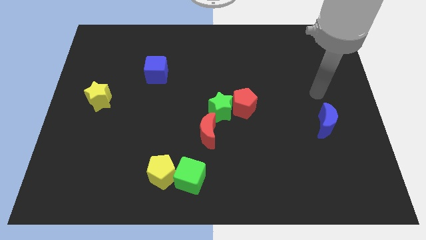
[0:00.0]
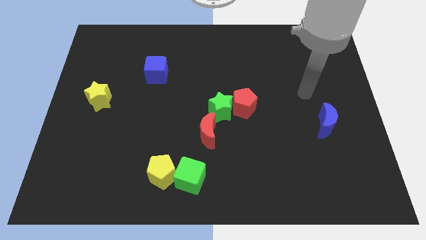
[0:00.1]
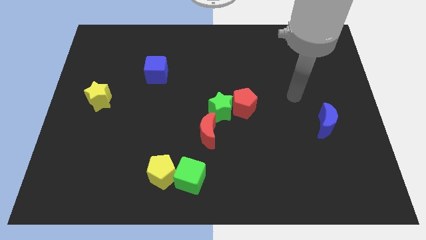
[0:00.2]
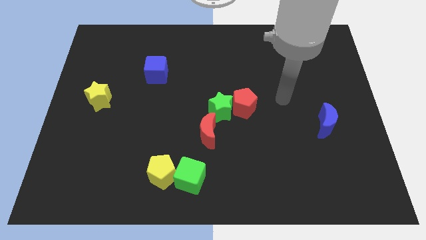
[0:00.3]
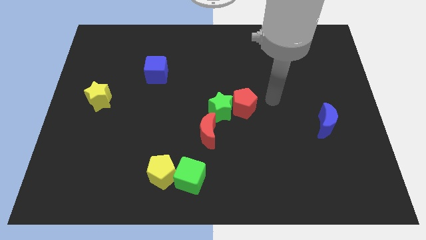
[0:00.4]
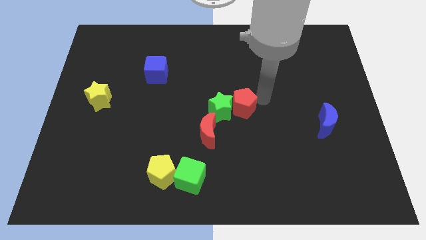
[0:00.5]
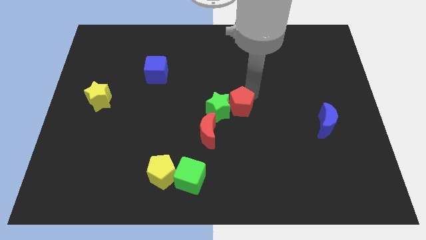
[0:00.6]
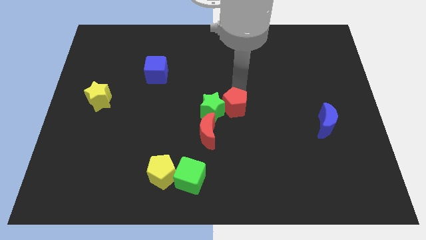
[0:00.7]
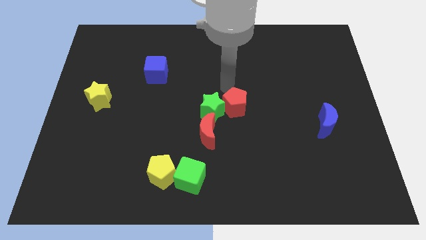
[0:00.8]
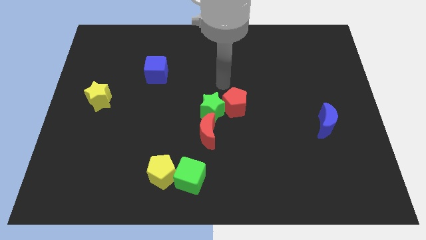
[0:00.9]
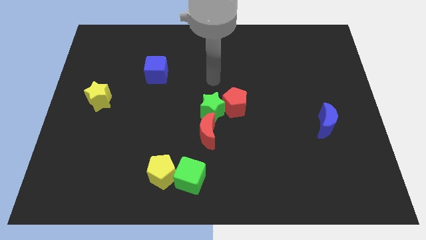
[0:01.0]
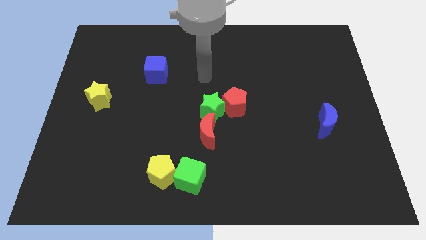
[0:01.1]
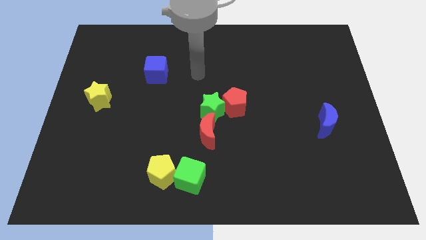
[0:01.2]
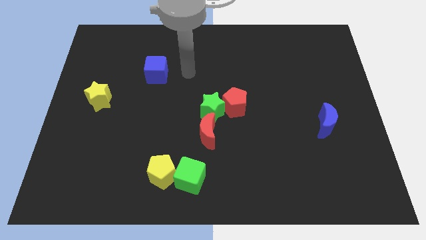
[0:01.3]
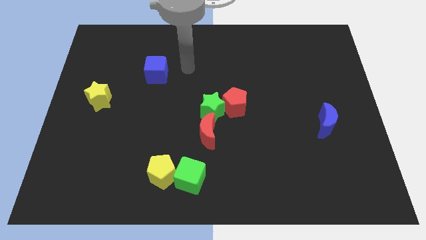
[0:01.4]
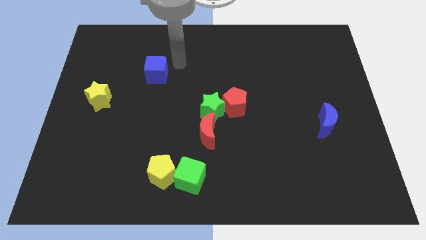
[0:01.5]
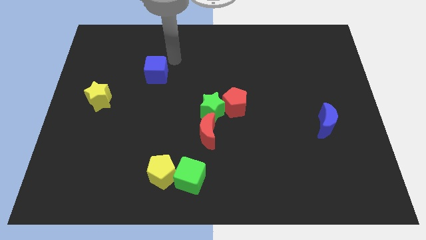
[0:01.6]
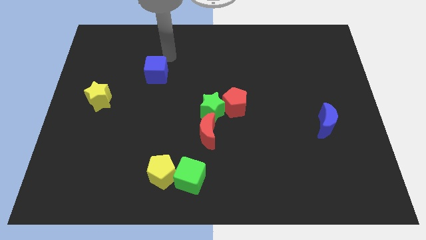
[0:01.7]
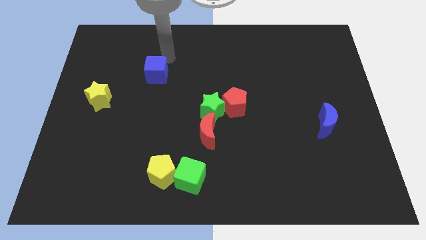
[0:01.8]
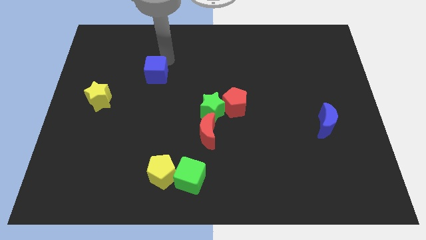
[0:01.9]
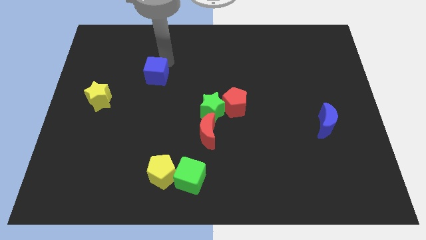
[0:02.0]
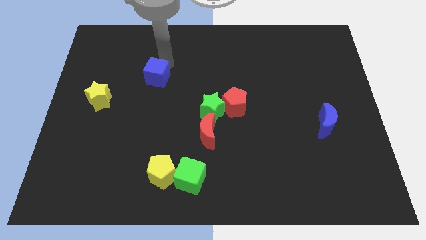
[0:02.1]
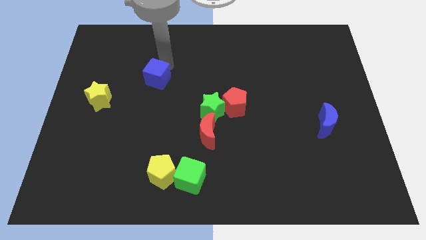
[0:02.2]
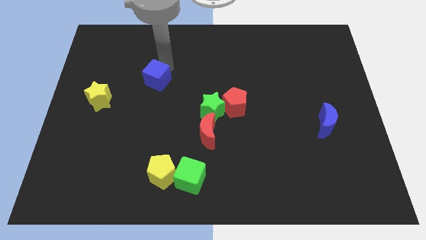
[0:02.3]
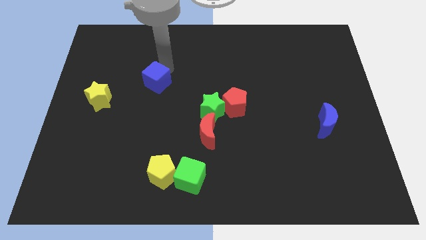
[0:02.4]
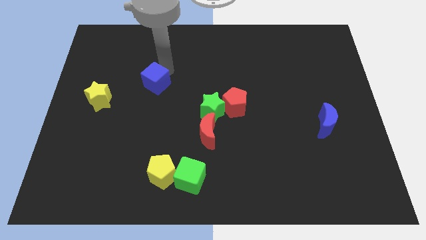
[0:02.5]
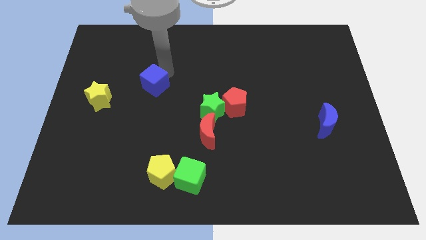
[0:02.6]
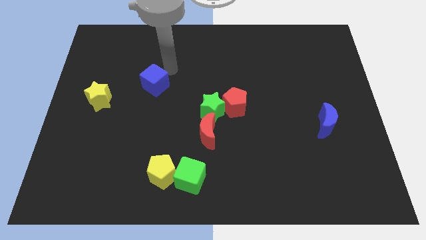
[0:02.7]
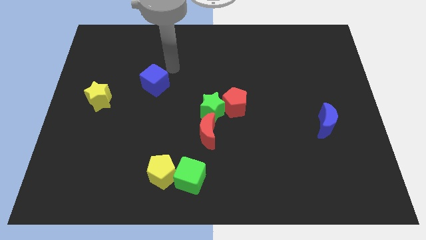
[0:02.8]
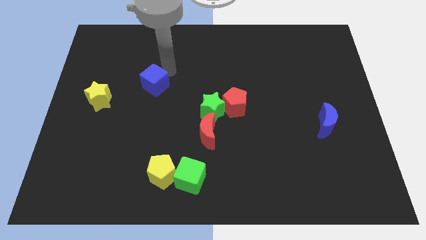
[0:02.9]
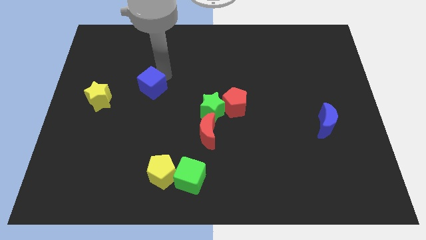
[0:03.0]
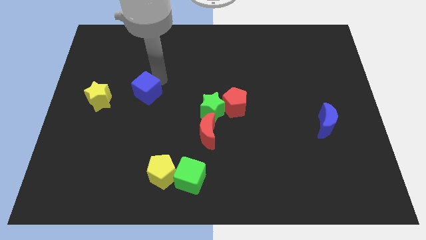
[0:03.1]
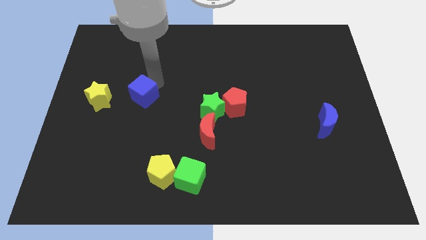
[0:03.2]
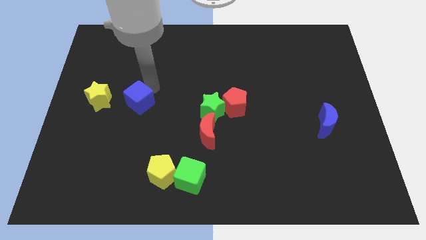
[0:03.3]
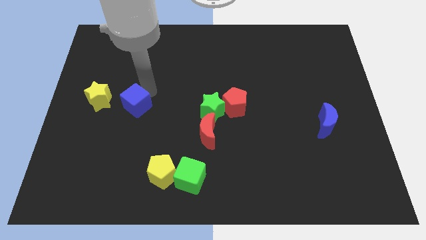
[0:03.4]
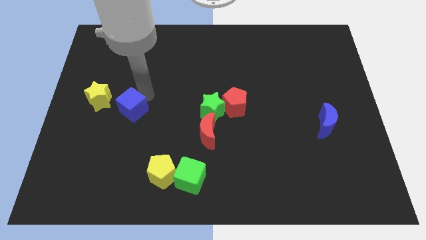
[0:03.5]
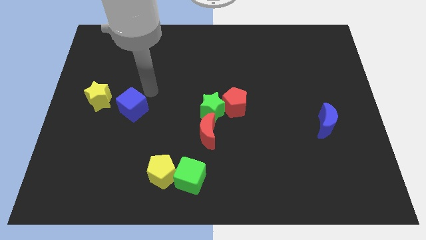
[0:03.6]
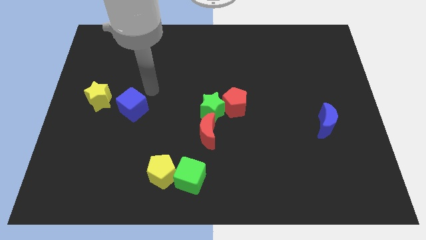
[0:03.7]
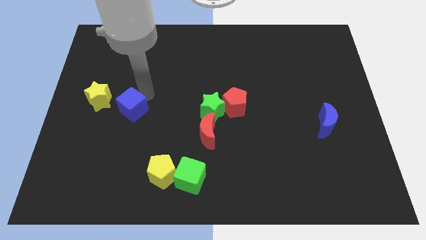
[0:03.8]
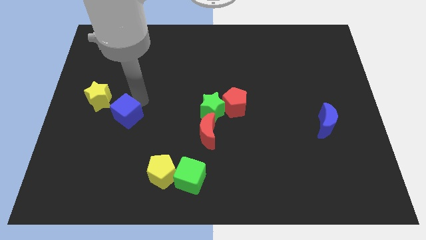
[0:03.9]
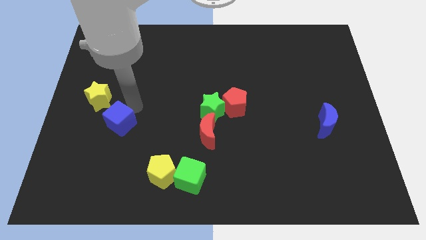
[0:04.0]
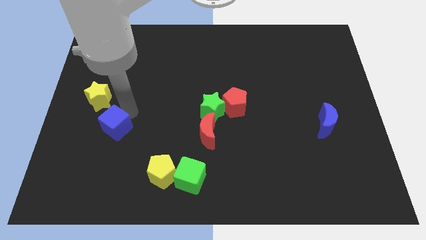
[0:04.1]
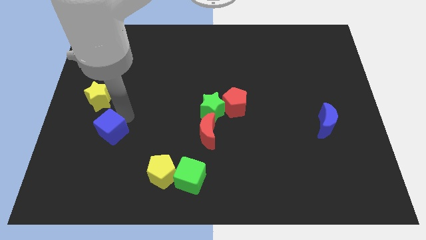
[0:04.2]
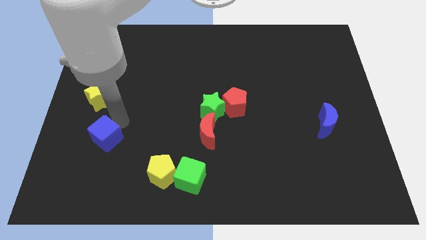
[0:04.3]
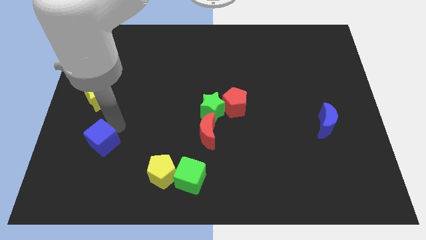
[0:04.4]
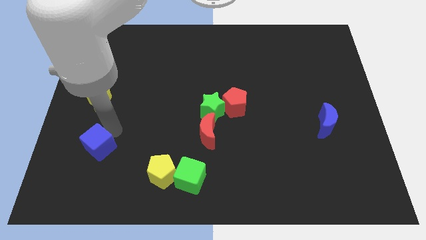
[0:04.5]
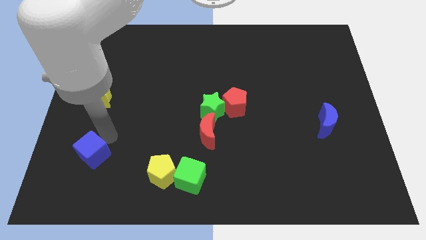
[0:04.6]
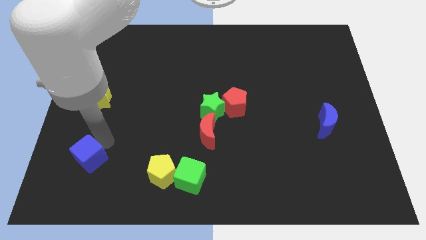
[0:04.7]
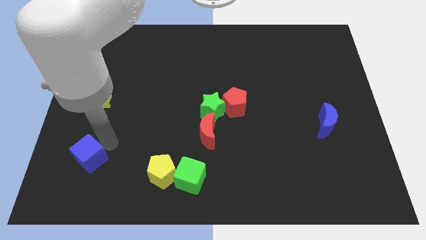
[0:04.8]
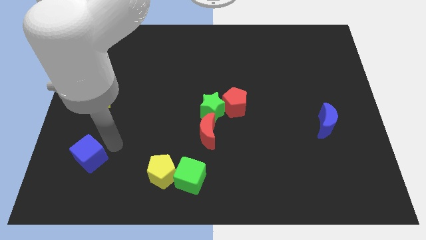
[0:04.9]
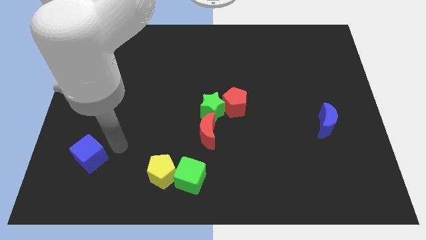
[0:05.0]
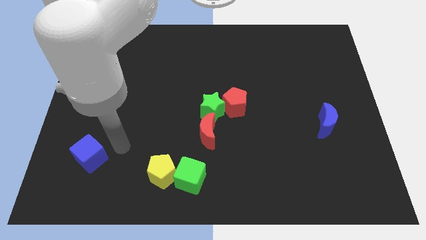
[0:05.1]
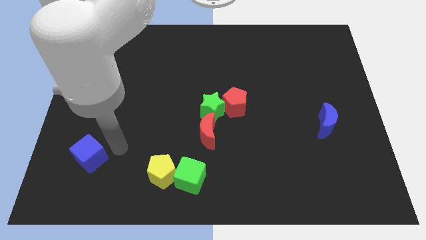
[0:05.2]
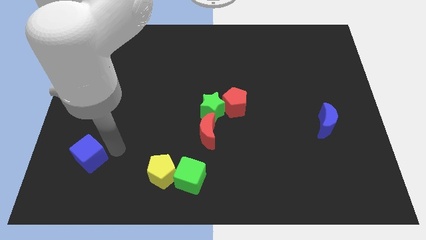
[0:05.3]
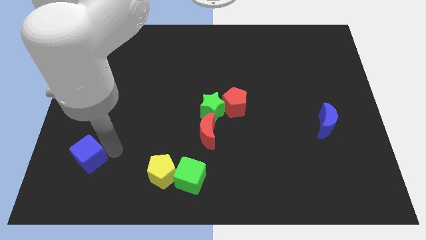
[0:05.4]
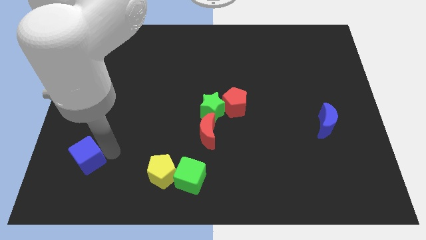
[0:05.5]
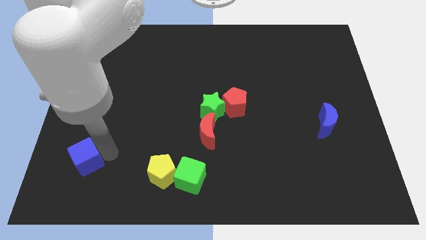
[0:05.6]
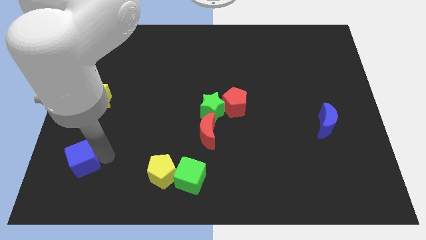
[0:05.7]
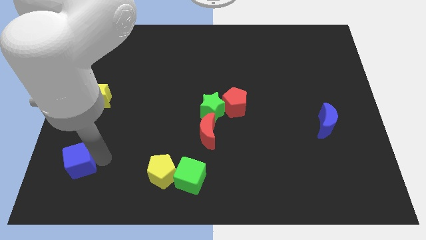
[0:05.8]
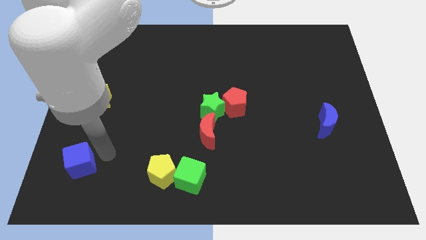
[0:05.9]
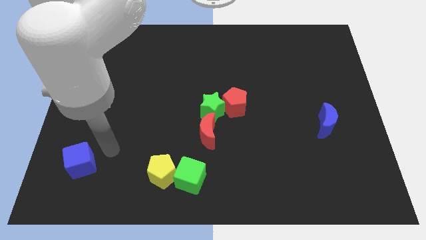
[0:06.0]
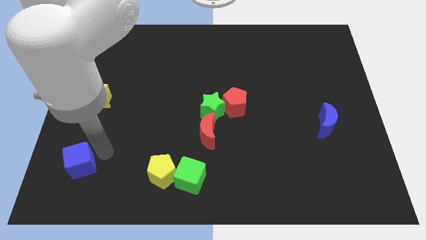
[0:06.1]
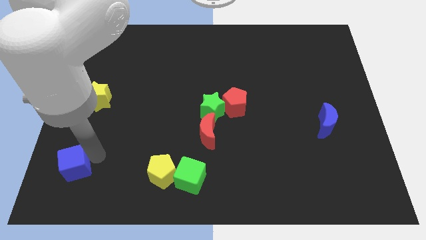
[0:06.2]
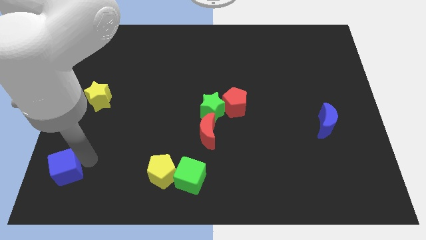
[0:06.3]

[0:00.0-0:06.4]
move the blue cube to the bottom left

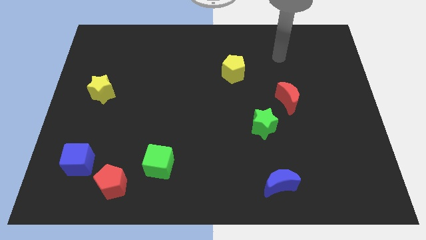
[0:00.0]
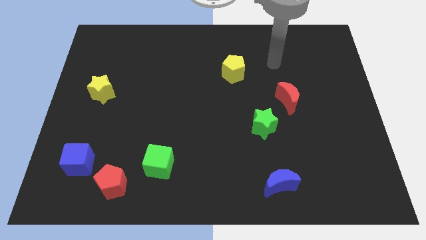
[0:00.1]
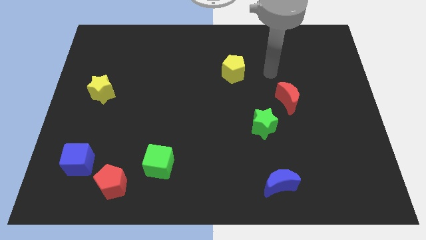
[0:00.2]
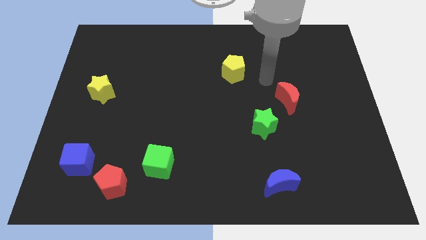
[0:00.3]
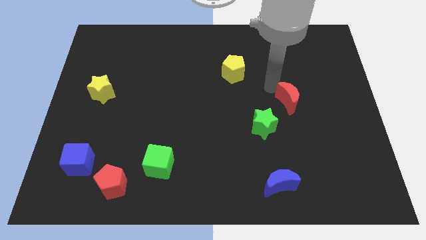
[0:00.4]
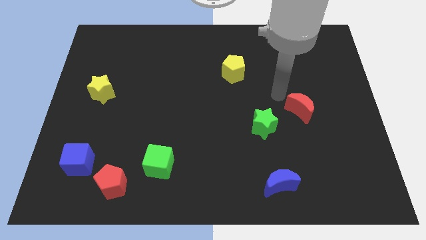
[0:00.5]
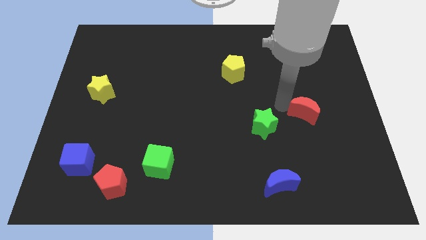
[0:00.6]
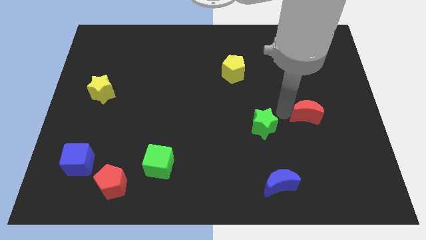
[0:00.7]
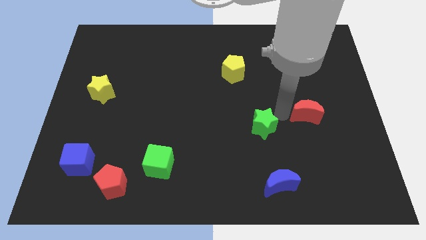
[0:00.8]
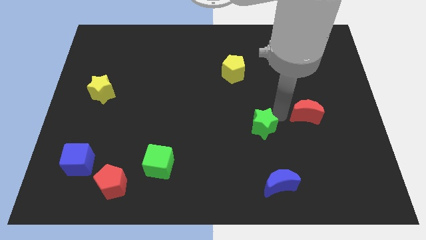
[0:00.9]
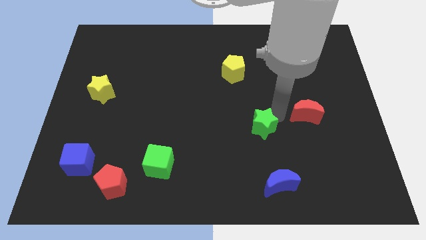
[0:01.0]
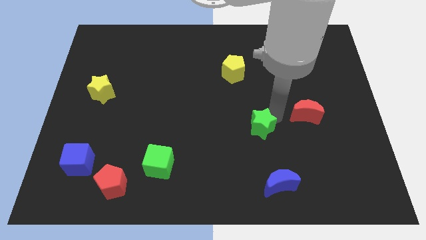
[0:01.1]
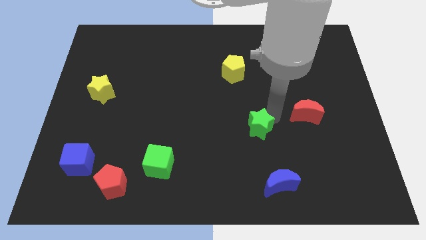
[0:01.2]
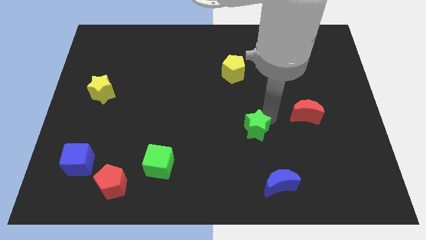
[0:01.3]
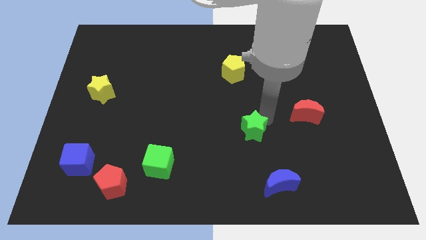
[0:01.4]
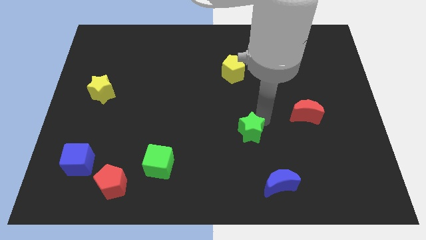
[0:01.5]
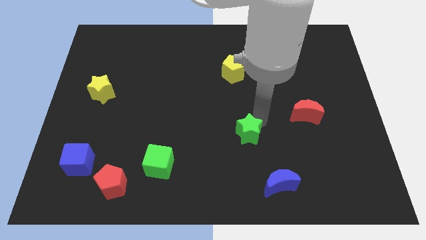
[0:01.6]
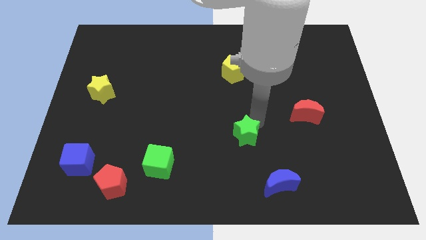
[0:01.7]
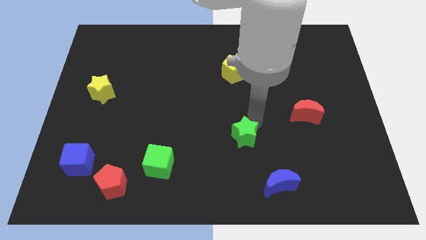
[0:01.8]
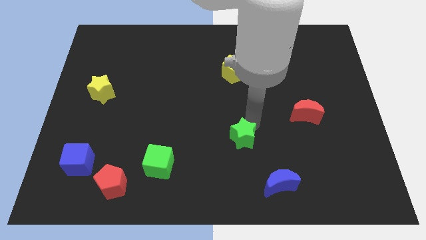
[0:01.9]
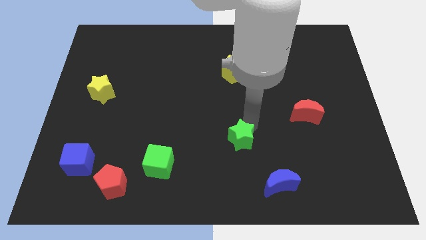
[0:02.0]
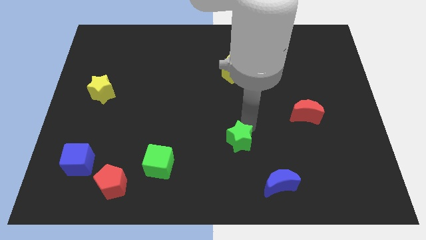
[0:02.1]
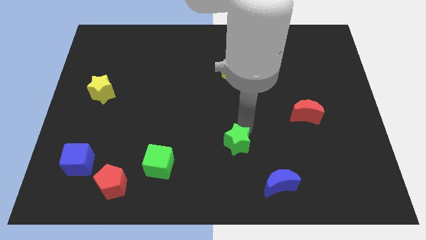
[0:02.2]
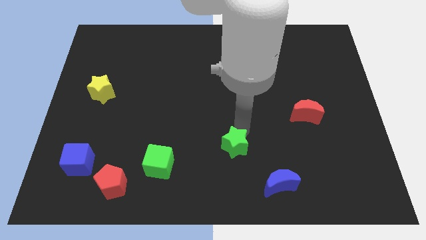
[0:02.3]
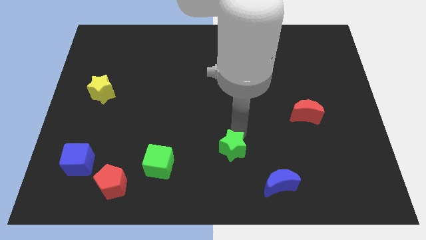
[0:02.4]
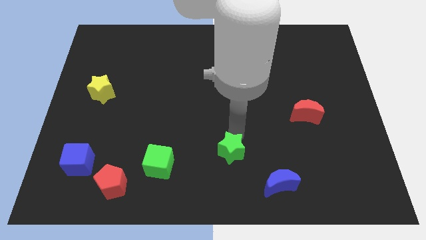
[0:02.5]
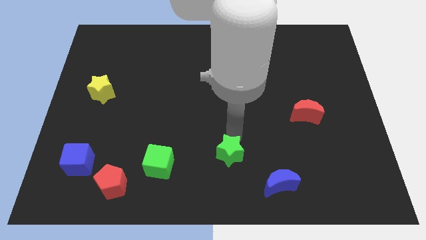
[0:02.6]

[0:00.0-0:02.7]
move the green star to the bottom side
